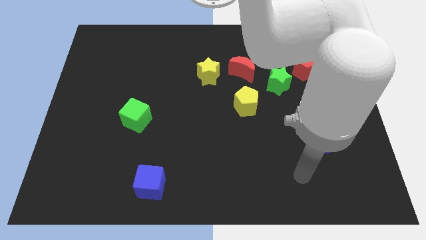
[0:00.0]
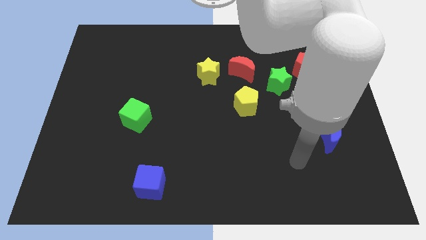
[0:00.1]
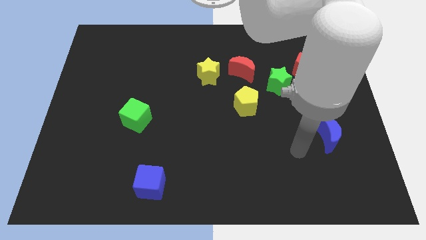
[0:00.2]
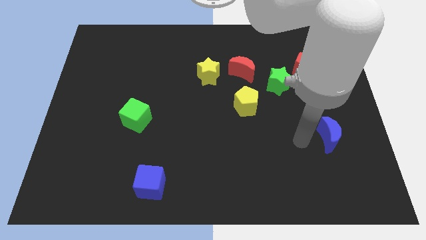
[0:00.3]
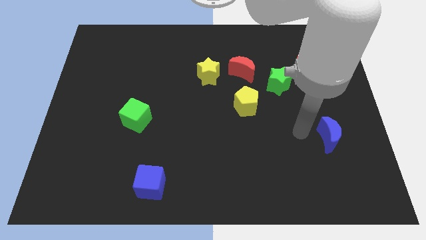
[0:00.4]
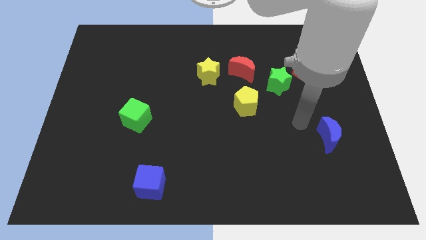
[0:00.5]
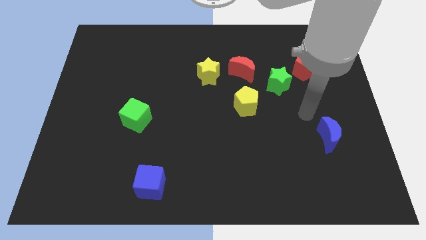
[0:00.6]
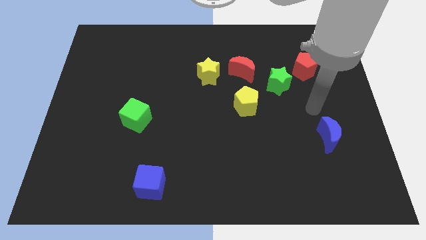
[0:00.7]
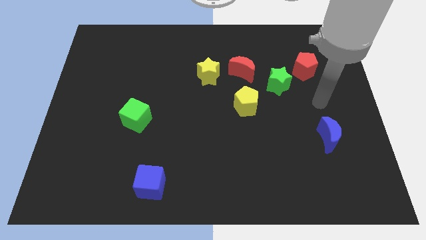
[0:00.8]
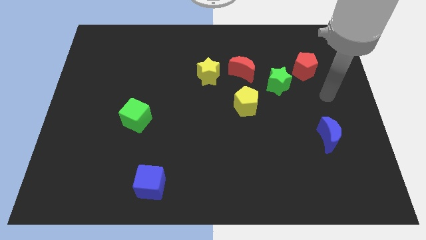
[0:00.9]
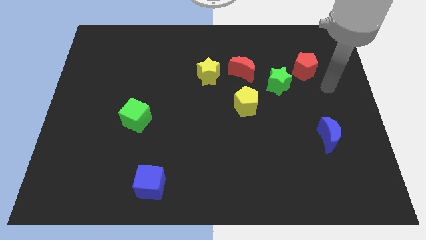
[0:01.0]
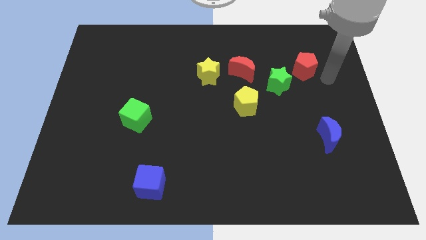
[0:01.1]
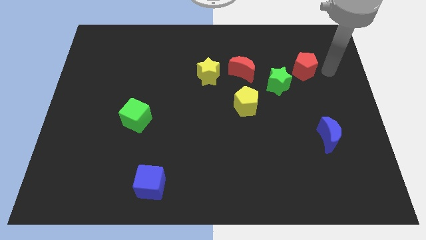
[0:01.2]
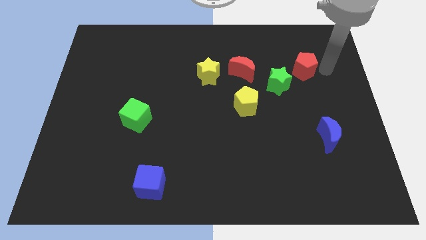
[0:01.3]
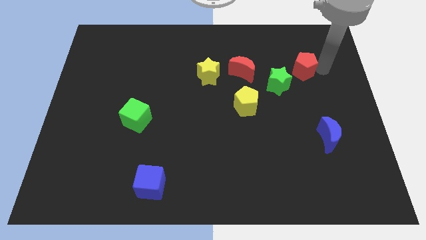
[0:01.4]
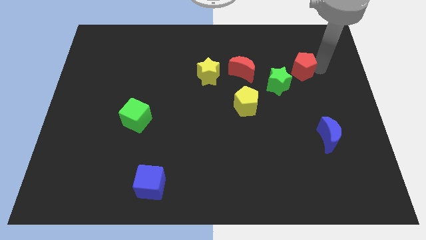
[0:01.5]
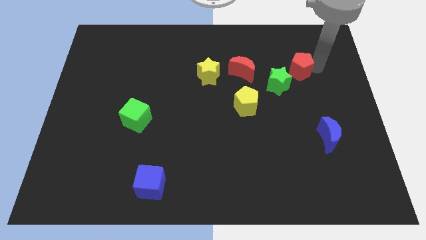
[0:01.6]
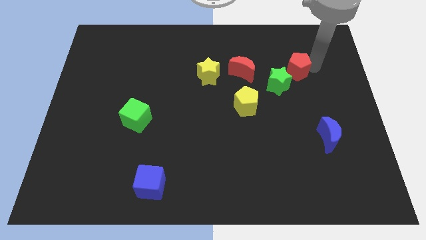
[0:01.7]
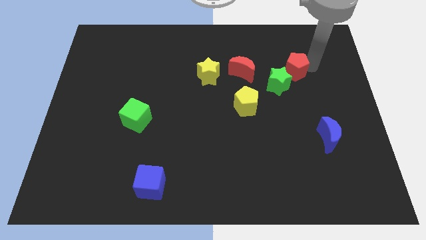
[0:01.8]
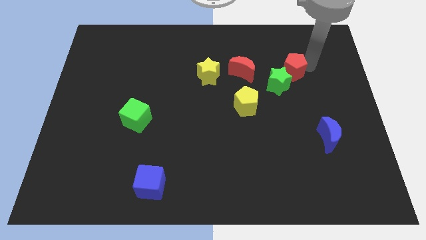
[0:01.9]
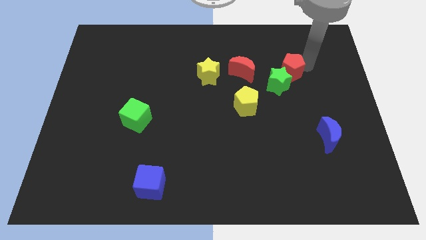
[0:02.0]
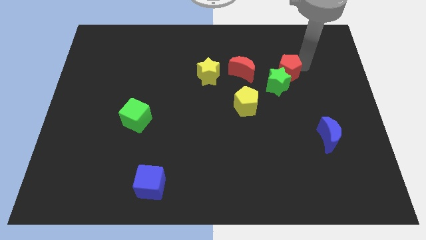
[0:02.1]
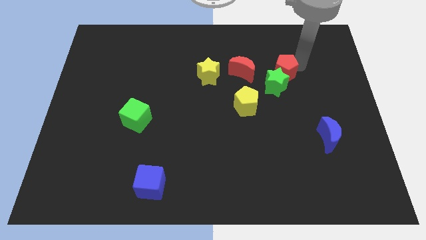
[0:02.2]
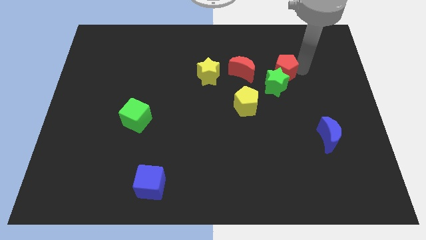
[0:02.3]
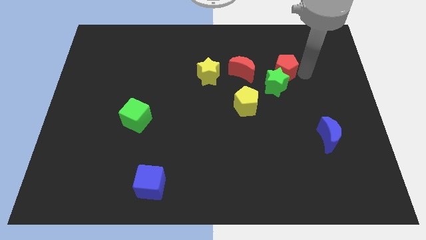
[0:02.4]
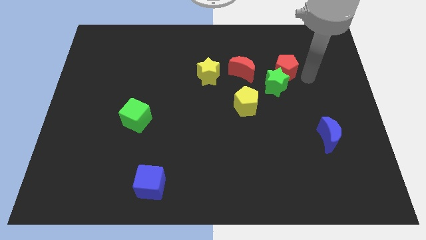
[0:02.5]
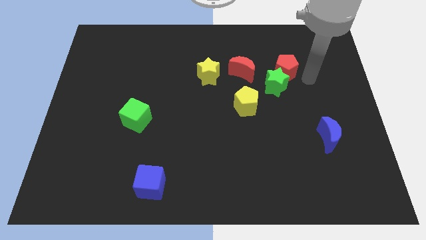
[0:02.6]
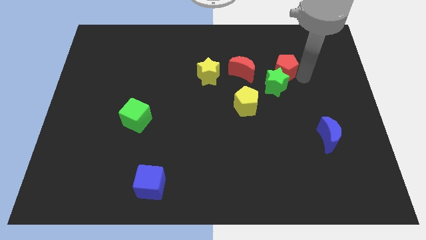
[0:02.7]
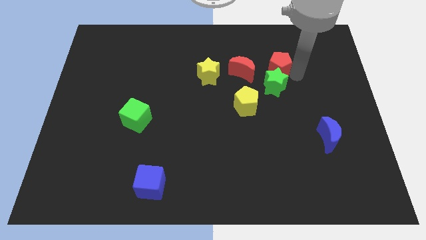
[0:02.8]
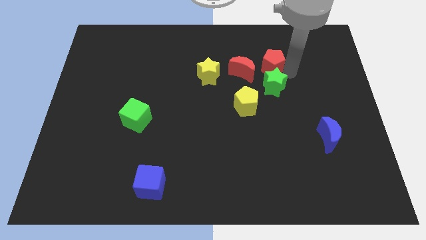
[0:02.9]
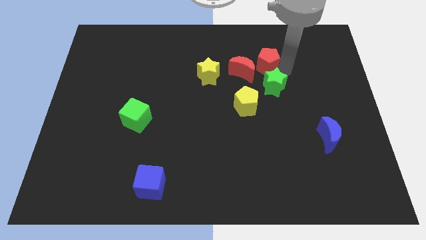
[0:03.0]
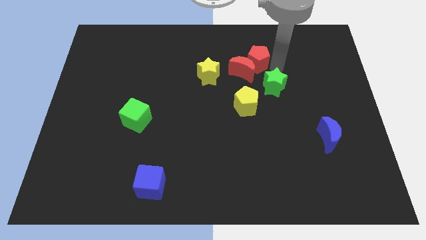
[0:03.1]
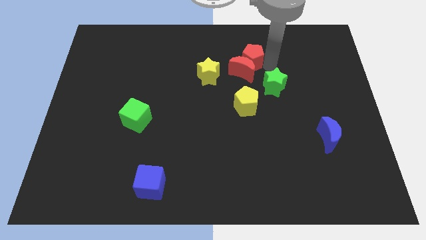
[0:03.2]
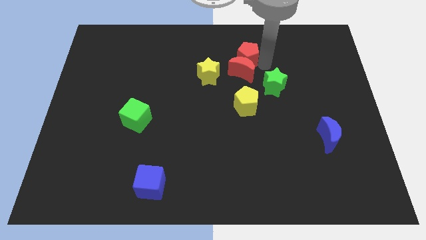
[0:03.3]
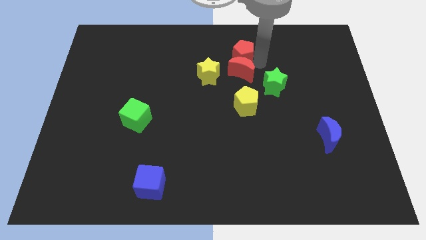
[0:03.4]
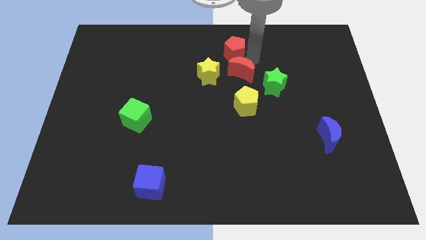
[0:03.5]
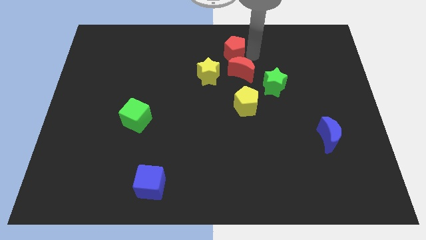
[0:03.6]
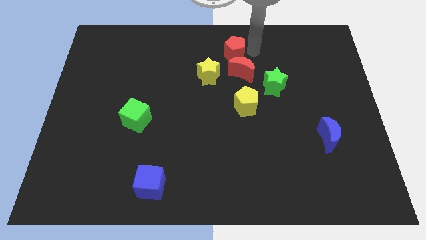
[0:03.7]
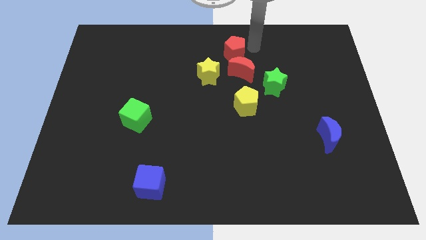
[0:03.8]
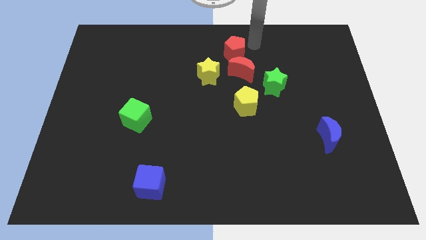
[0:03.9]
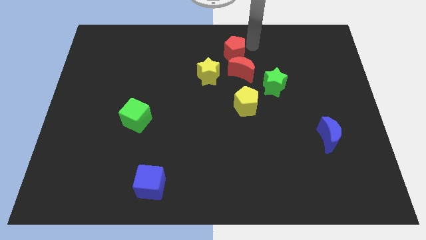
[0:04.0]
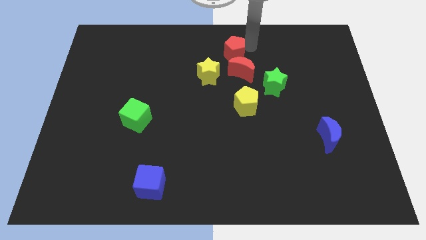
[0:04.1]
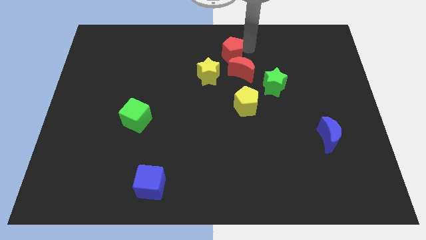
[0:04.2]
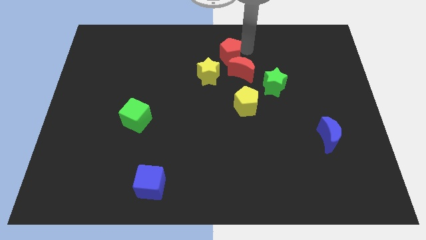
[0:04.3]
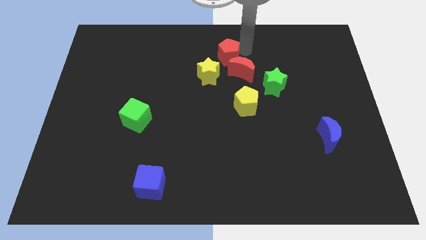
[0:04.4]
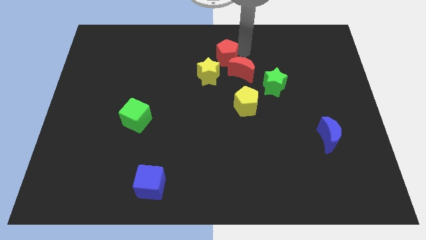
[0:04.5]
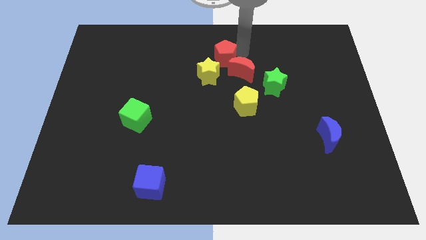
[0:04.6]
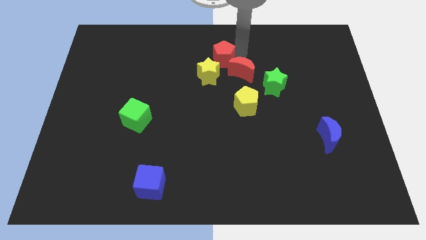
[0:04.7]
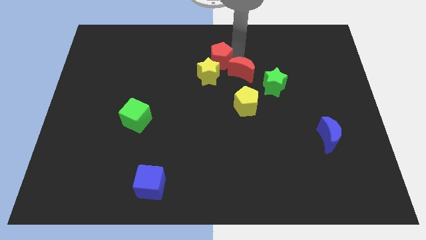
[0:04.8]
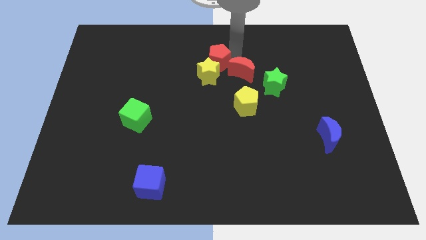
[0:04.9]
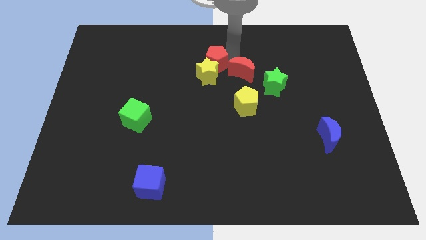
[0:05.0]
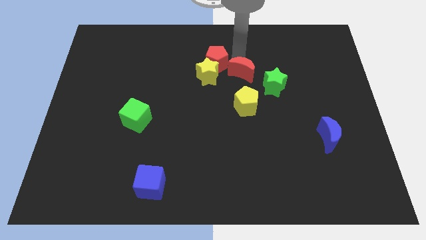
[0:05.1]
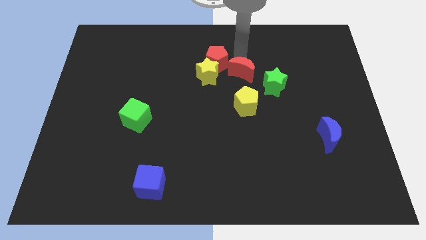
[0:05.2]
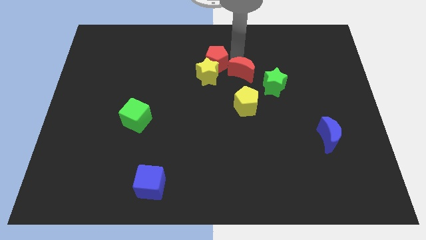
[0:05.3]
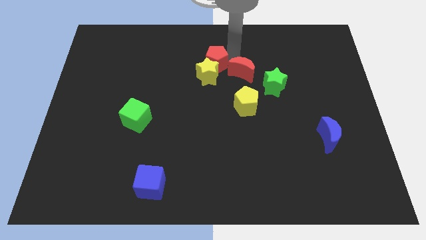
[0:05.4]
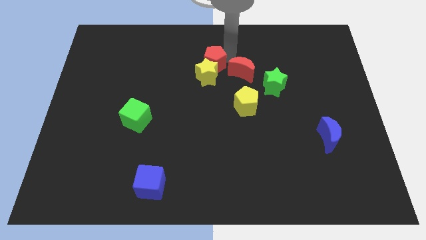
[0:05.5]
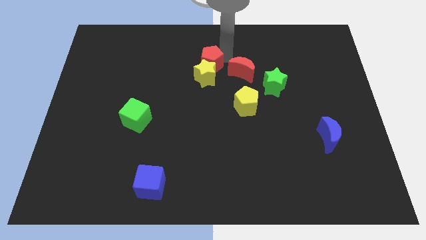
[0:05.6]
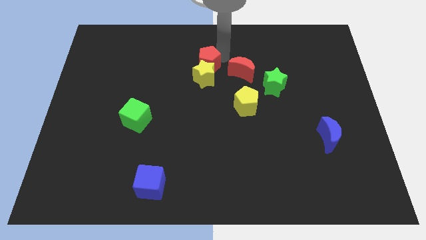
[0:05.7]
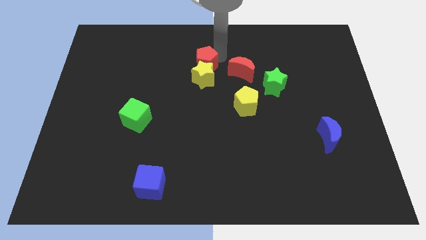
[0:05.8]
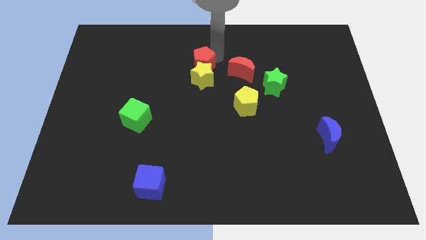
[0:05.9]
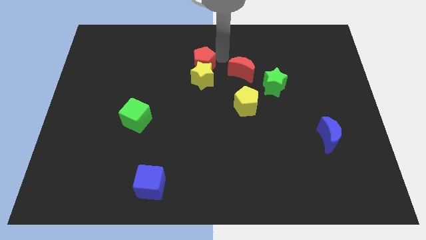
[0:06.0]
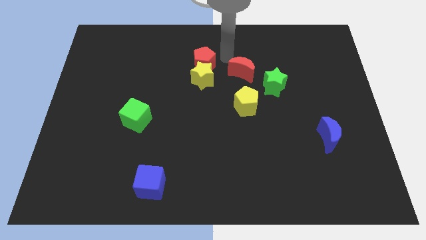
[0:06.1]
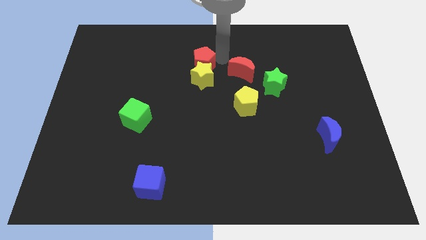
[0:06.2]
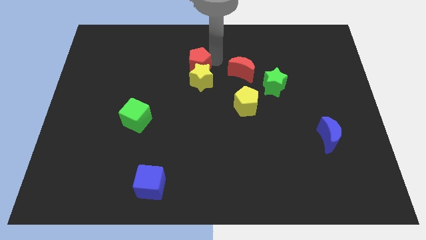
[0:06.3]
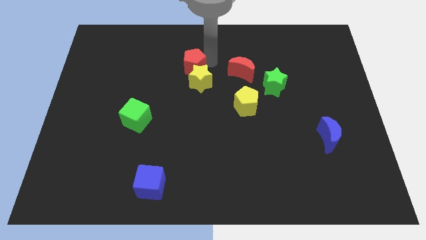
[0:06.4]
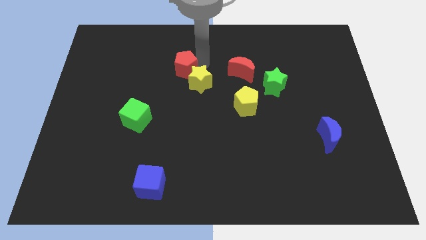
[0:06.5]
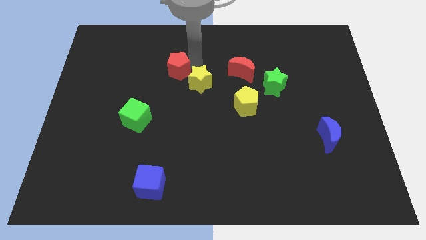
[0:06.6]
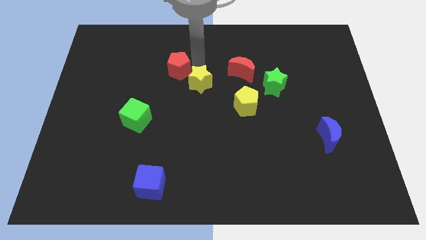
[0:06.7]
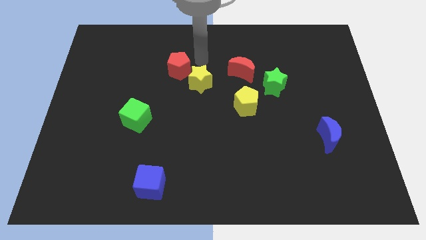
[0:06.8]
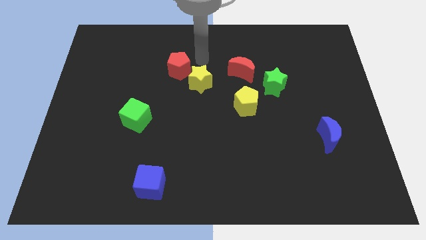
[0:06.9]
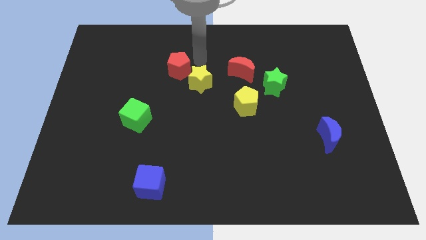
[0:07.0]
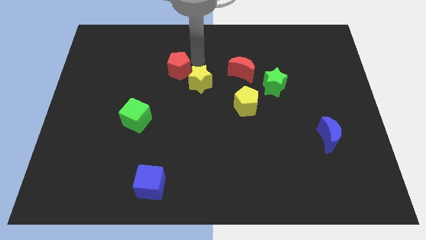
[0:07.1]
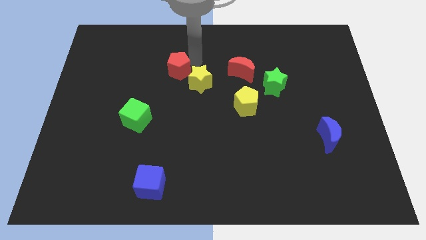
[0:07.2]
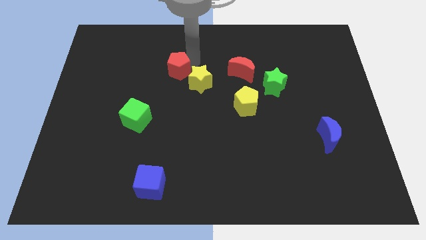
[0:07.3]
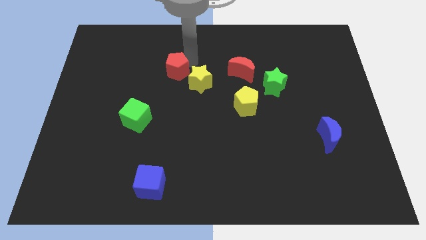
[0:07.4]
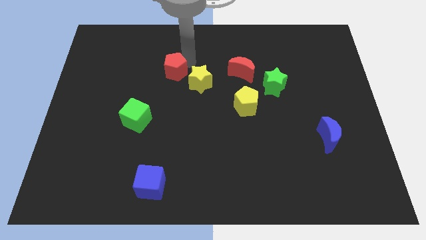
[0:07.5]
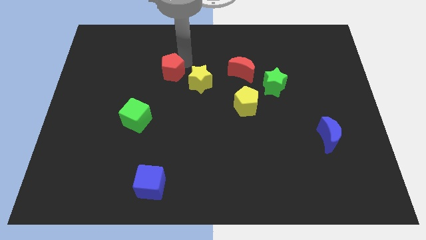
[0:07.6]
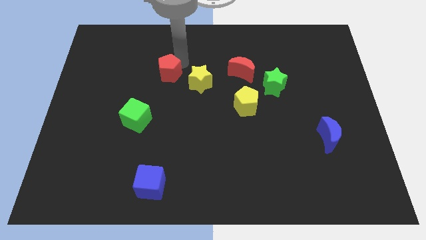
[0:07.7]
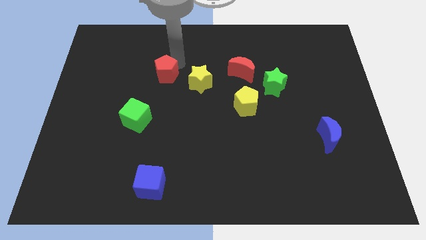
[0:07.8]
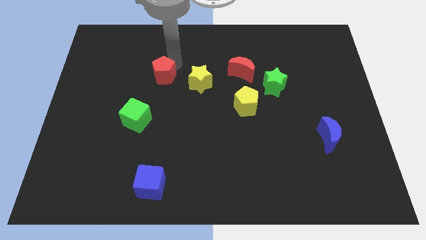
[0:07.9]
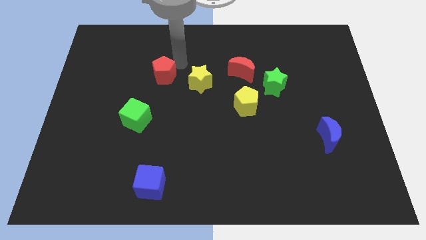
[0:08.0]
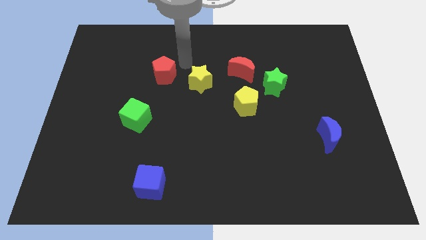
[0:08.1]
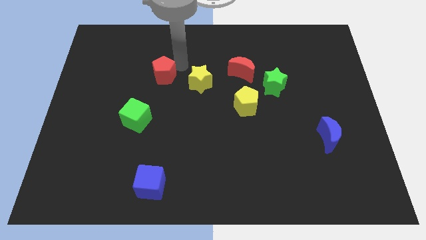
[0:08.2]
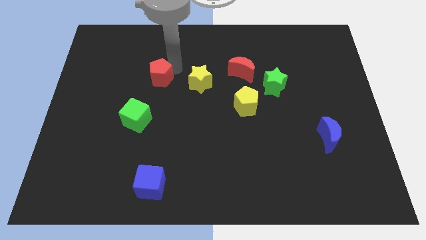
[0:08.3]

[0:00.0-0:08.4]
push the red pentagon above the green cube
